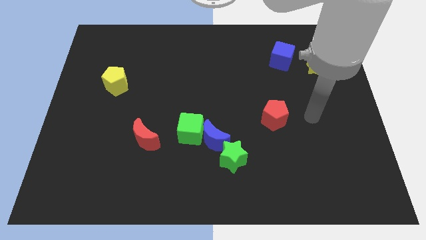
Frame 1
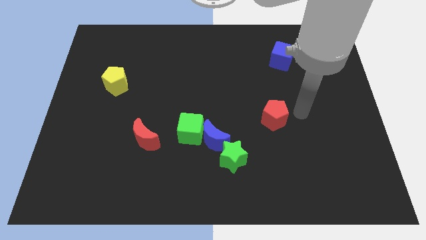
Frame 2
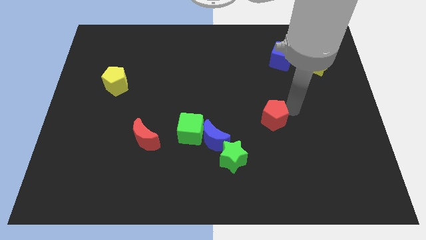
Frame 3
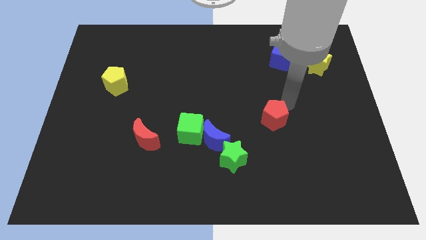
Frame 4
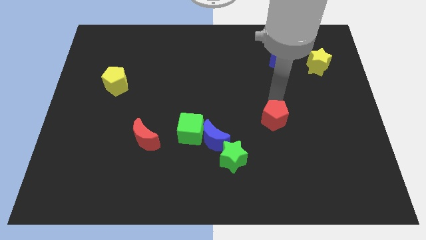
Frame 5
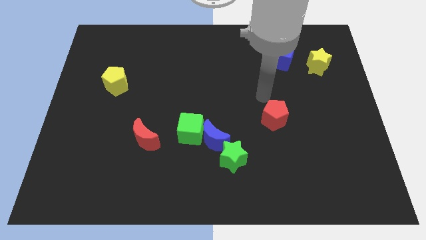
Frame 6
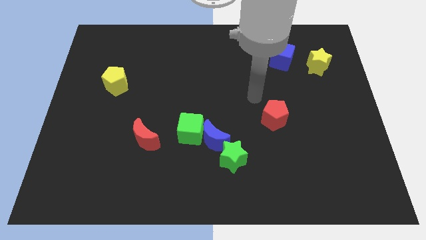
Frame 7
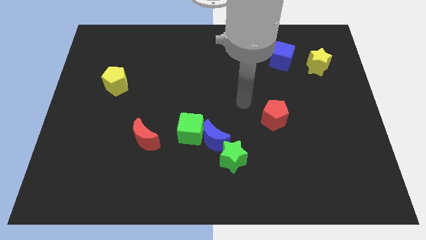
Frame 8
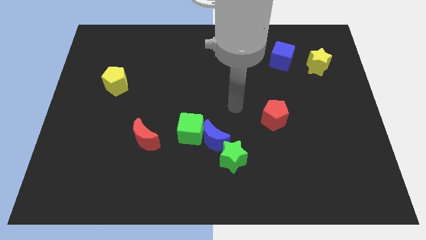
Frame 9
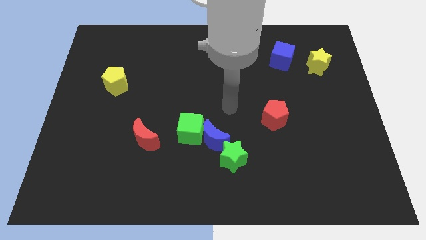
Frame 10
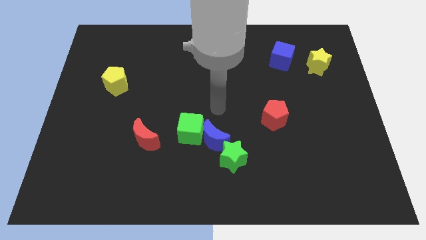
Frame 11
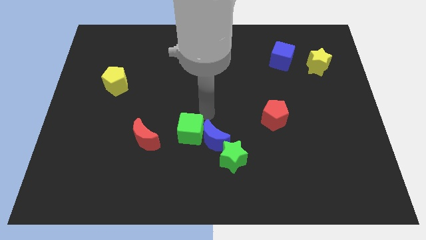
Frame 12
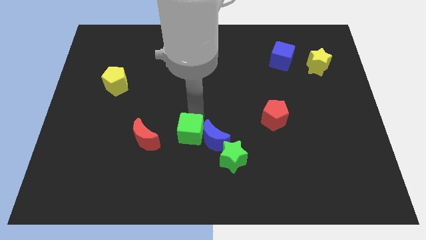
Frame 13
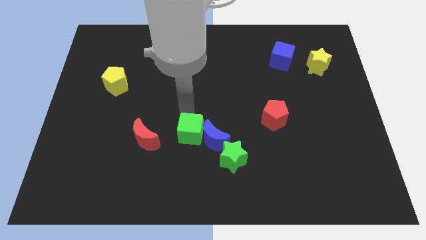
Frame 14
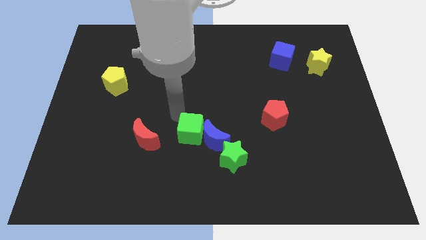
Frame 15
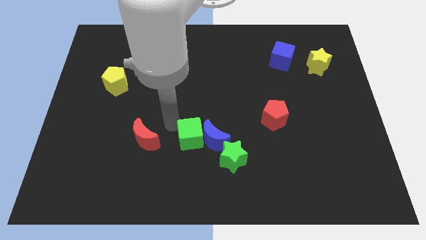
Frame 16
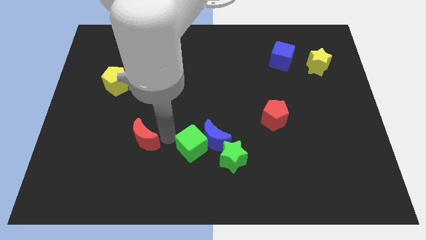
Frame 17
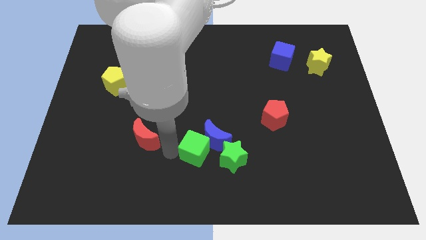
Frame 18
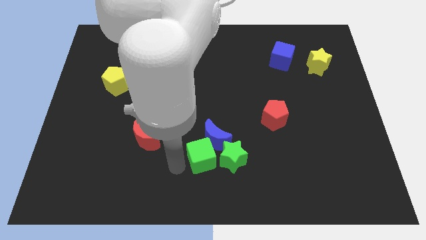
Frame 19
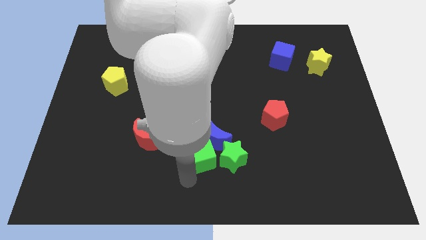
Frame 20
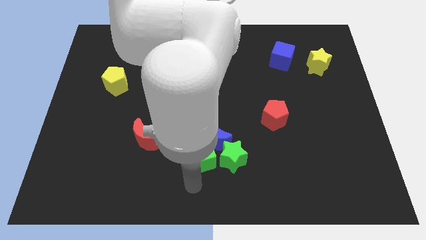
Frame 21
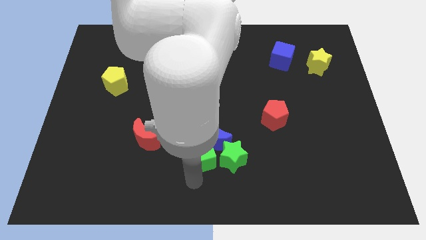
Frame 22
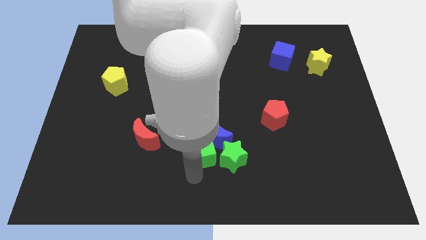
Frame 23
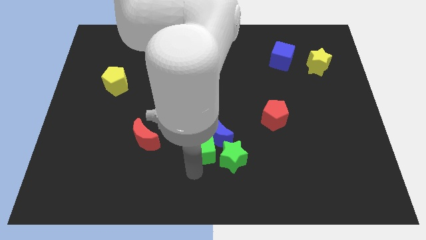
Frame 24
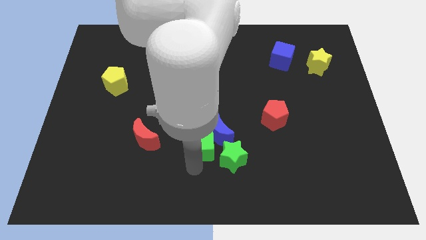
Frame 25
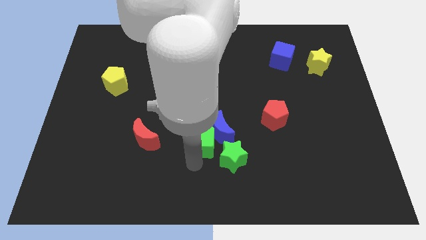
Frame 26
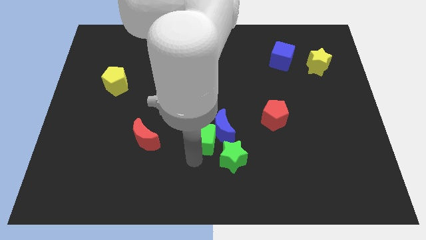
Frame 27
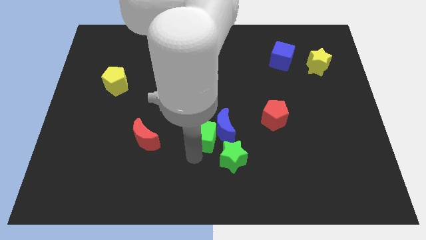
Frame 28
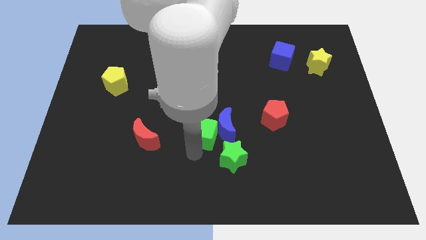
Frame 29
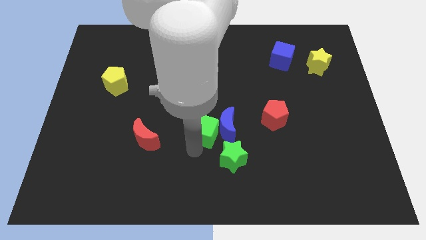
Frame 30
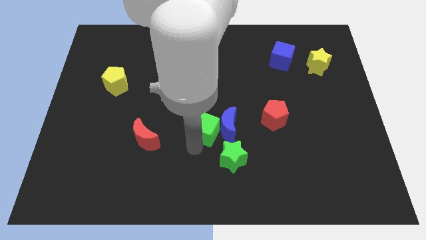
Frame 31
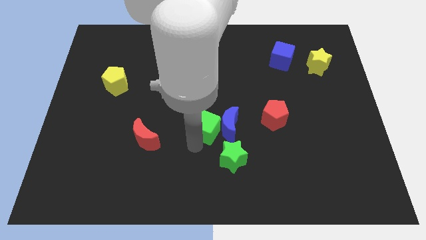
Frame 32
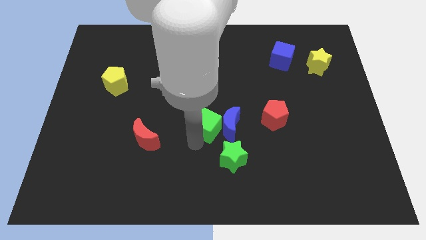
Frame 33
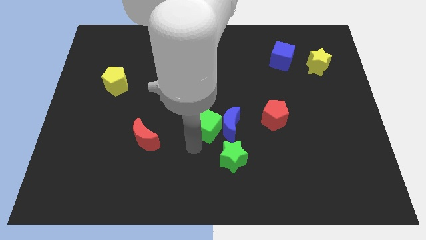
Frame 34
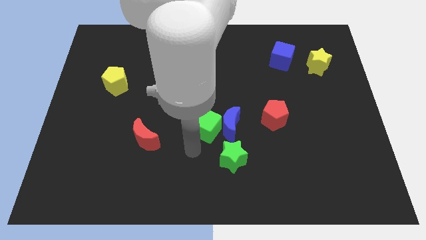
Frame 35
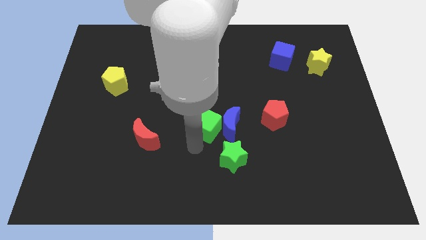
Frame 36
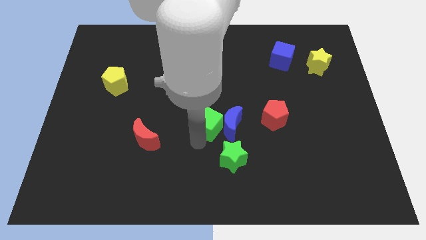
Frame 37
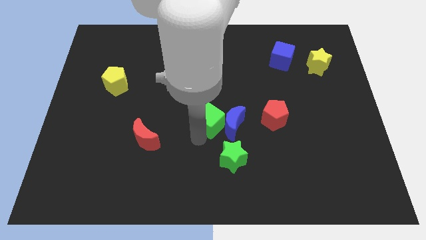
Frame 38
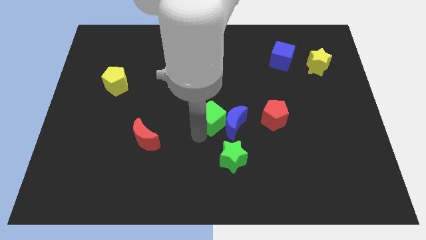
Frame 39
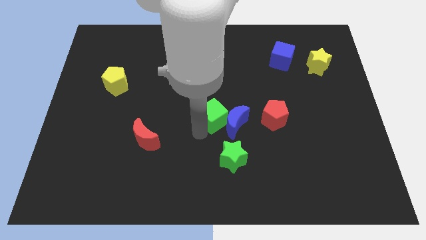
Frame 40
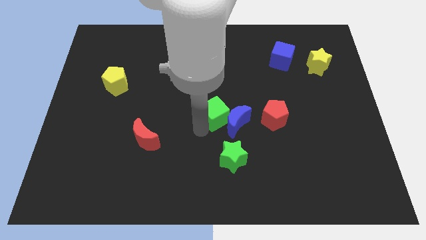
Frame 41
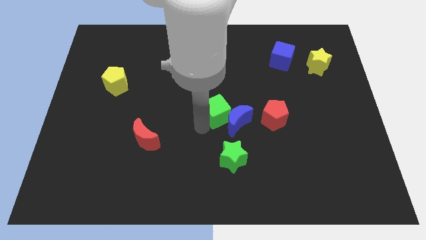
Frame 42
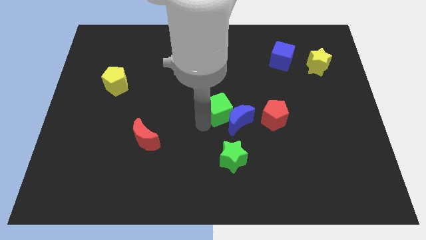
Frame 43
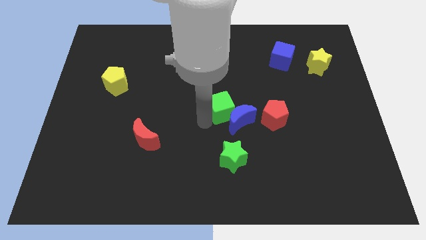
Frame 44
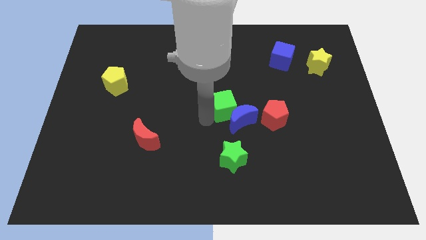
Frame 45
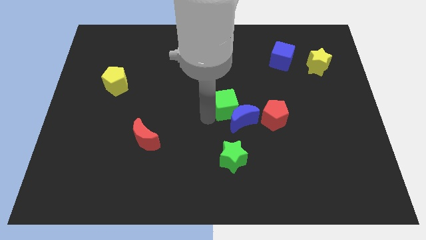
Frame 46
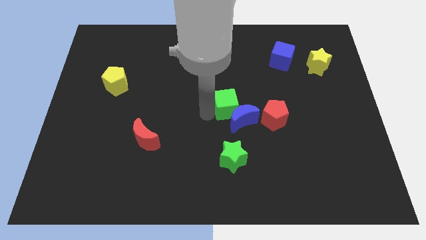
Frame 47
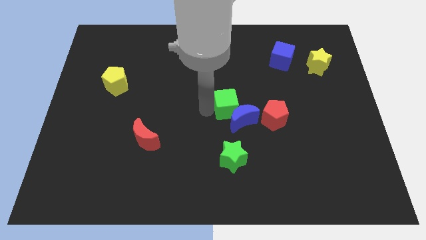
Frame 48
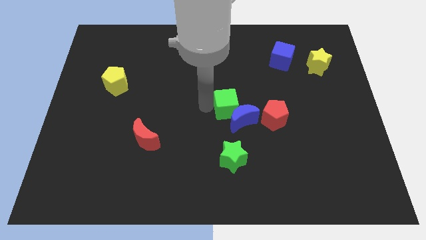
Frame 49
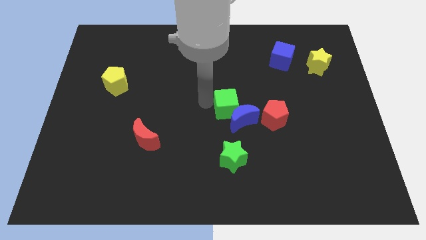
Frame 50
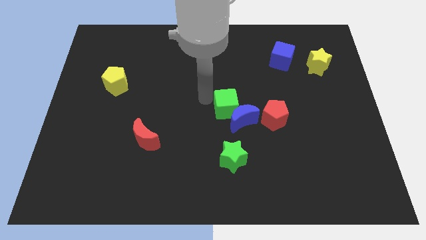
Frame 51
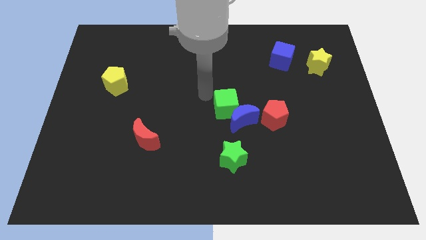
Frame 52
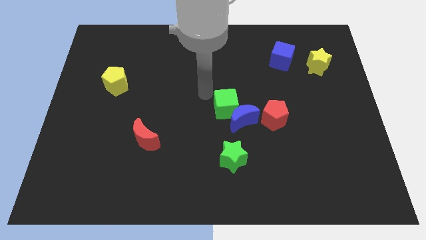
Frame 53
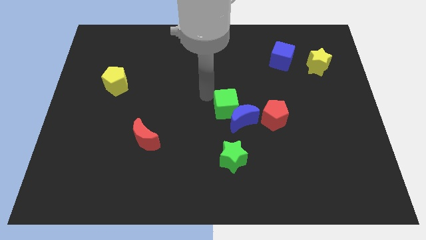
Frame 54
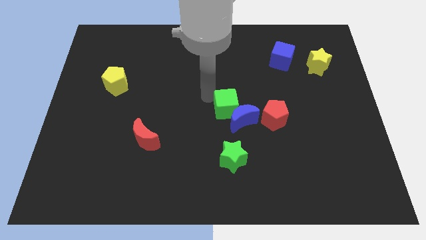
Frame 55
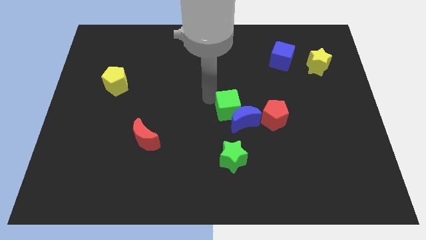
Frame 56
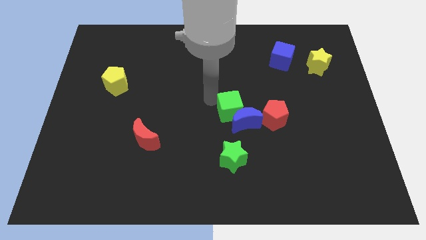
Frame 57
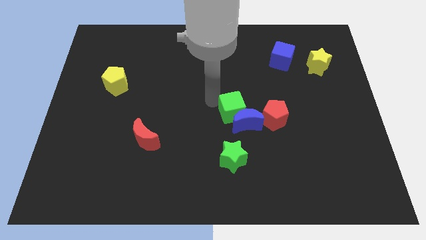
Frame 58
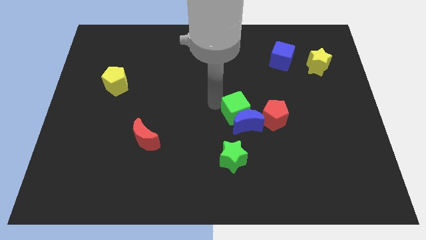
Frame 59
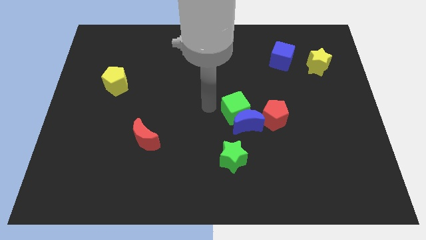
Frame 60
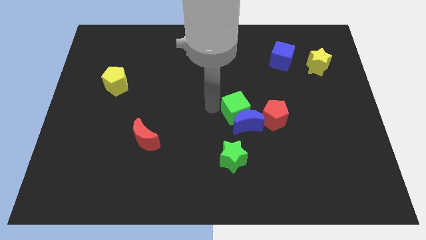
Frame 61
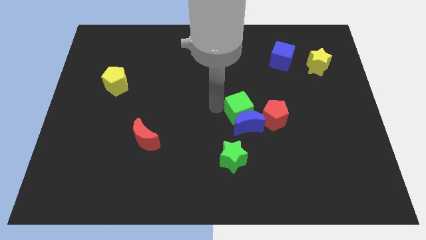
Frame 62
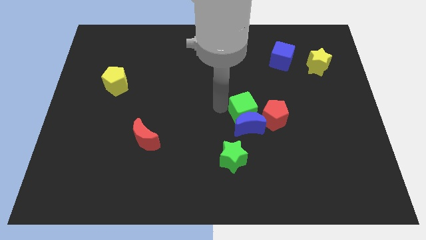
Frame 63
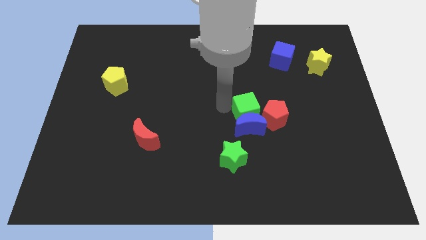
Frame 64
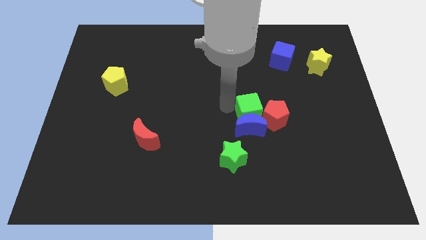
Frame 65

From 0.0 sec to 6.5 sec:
push the green cube next to the red pentagon
